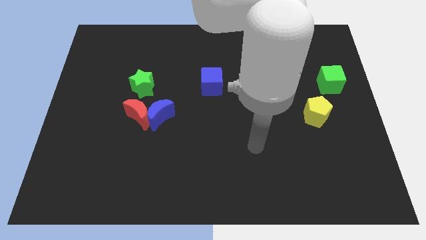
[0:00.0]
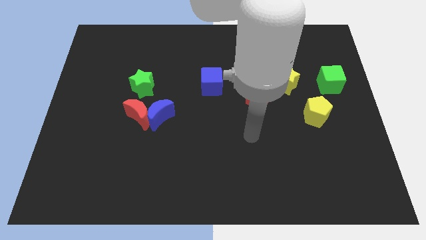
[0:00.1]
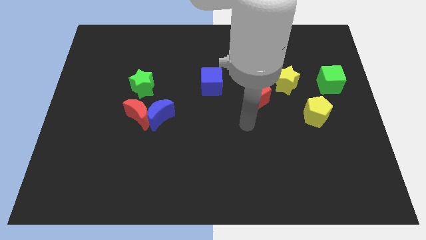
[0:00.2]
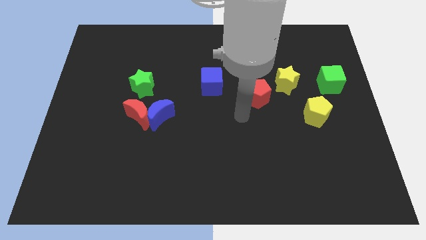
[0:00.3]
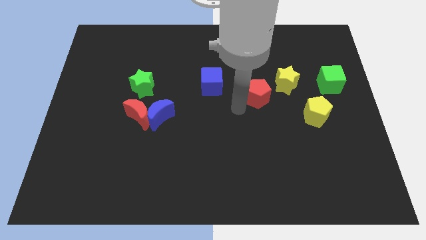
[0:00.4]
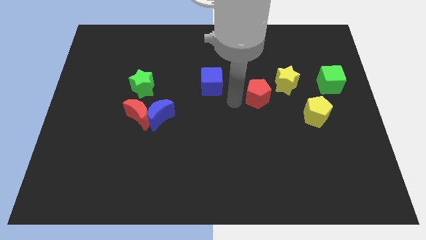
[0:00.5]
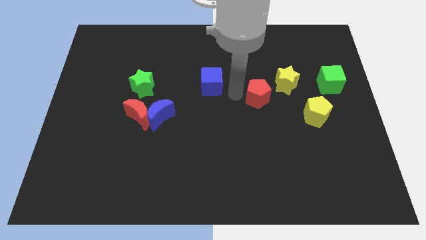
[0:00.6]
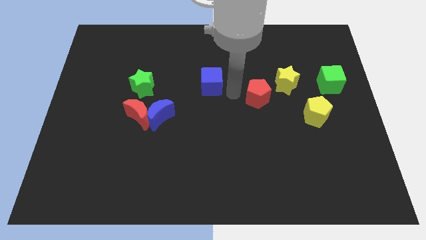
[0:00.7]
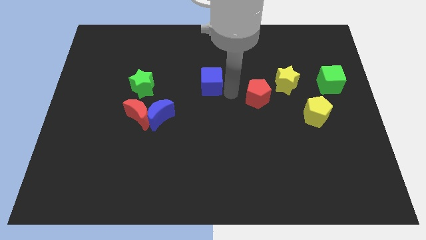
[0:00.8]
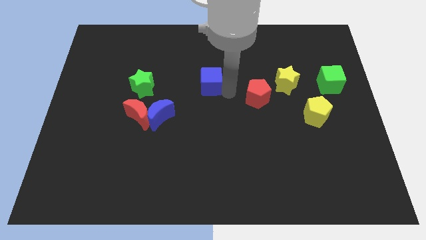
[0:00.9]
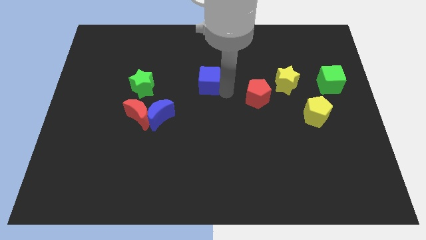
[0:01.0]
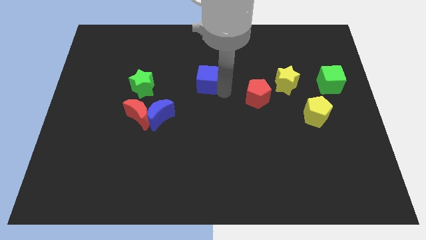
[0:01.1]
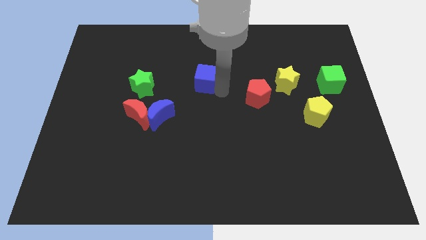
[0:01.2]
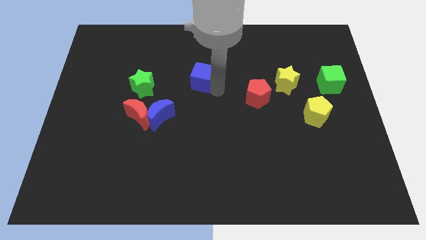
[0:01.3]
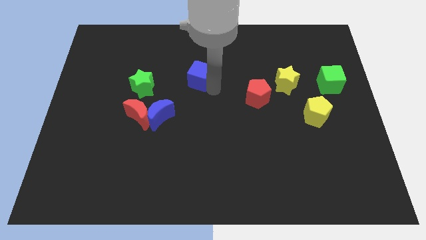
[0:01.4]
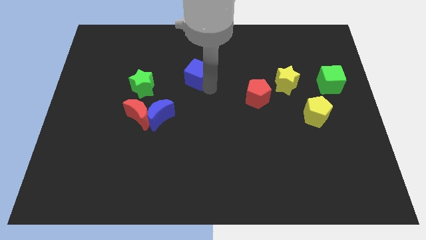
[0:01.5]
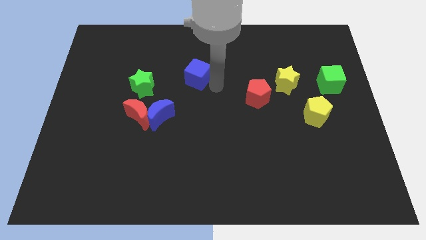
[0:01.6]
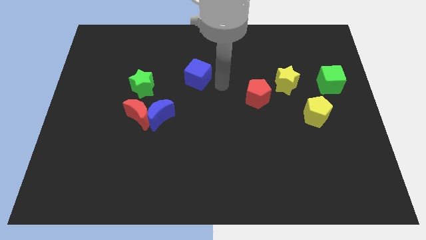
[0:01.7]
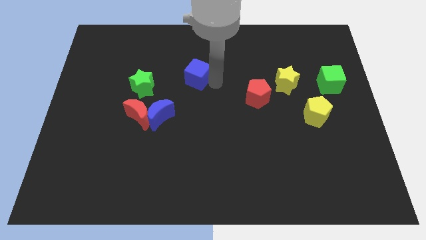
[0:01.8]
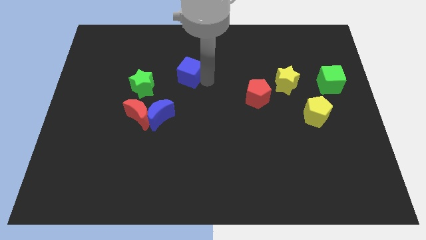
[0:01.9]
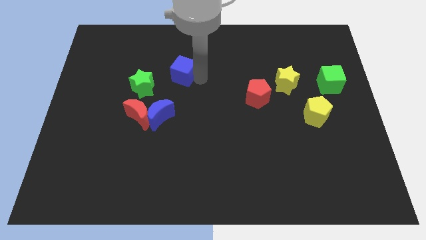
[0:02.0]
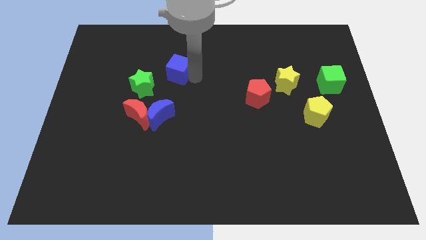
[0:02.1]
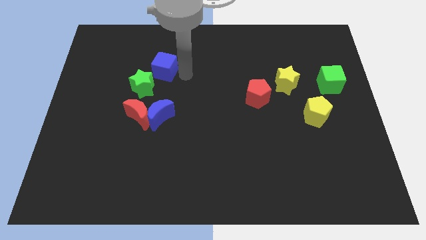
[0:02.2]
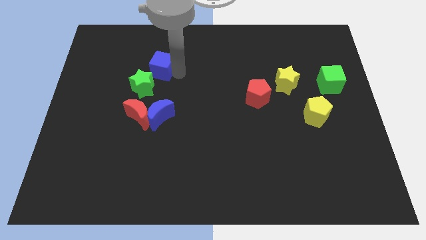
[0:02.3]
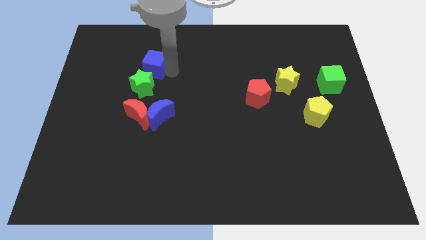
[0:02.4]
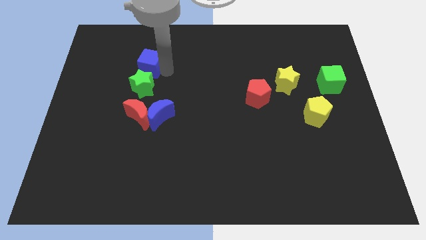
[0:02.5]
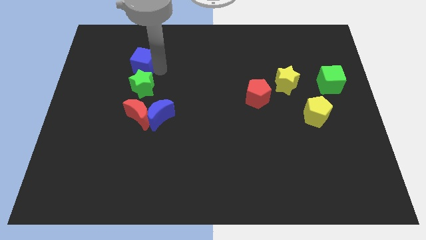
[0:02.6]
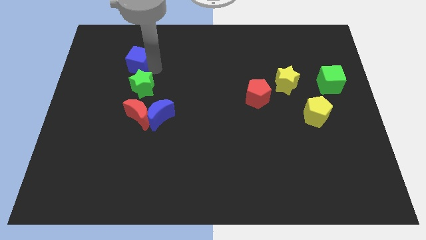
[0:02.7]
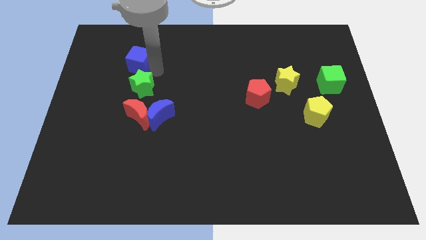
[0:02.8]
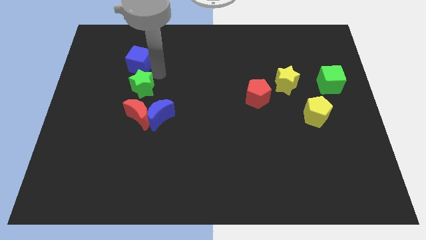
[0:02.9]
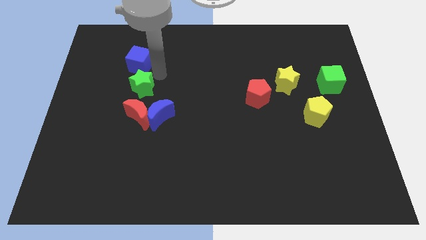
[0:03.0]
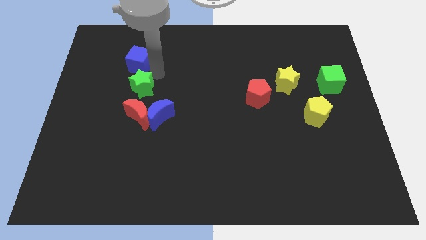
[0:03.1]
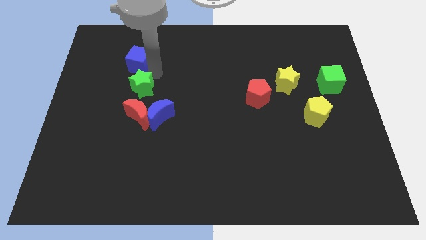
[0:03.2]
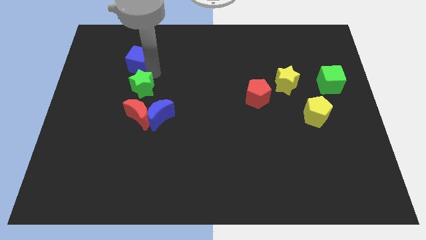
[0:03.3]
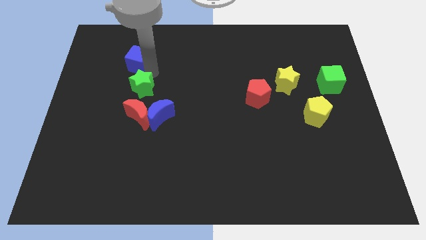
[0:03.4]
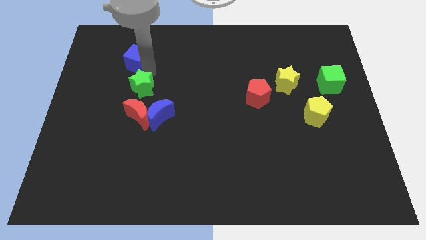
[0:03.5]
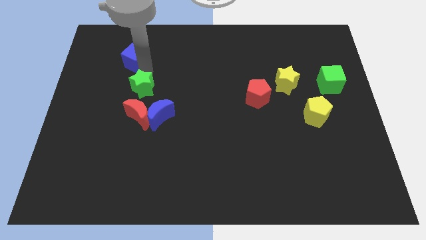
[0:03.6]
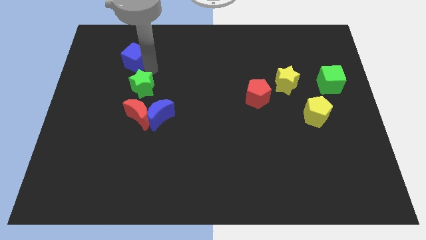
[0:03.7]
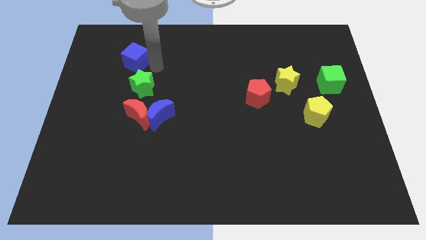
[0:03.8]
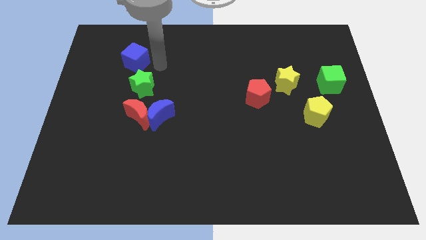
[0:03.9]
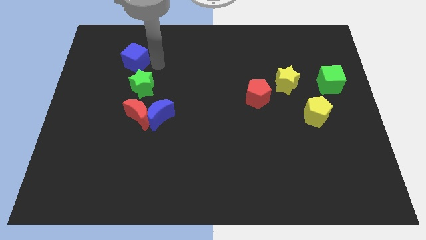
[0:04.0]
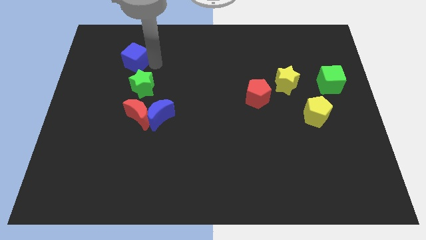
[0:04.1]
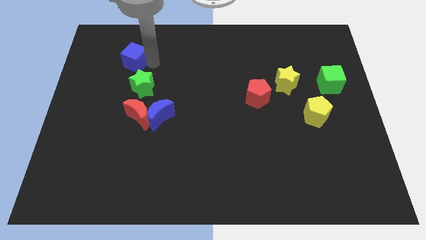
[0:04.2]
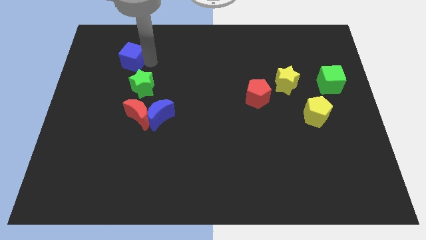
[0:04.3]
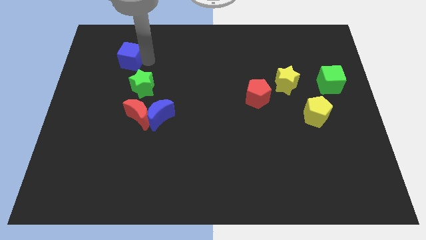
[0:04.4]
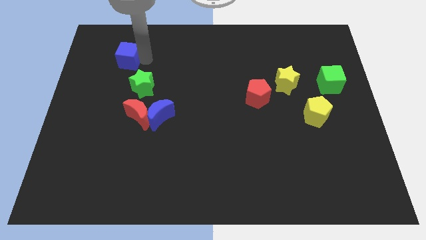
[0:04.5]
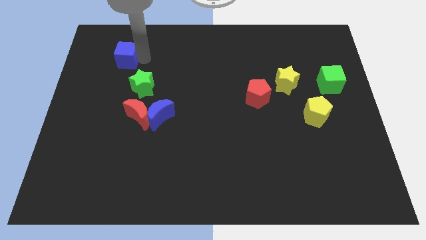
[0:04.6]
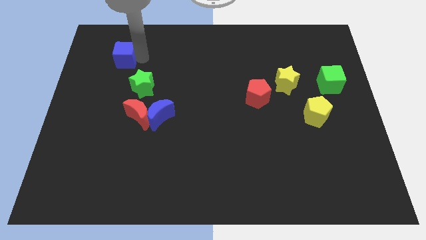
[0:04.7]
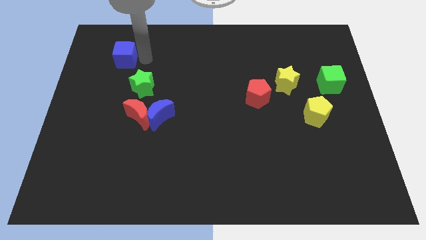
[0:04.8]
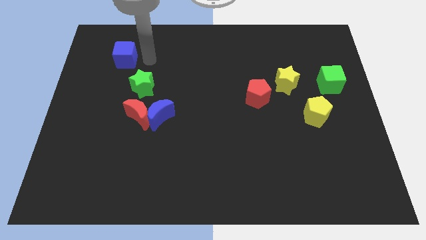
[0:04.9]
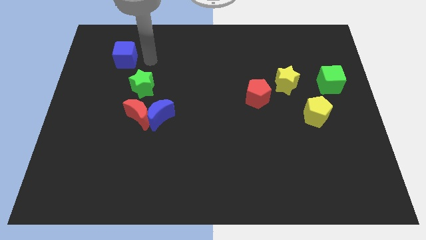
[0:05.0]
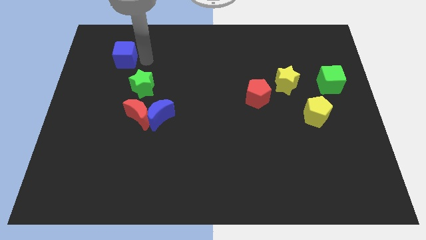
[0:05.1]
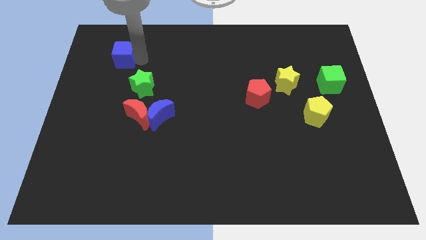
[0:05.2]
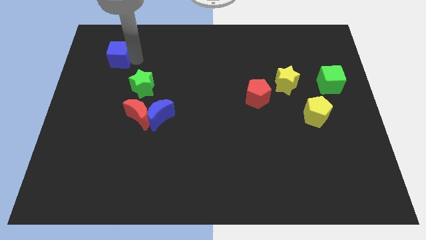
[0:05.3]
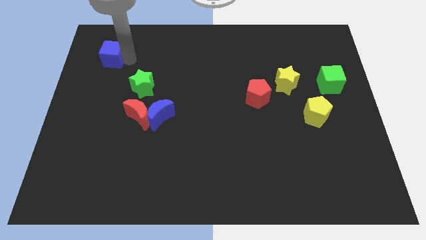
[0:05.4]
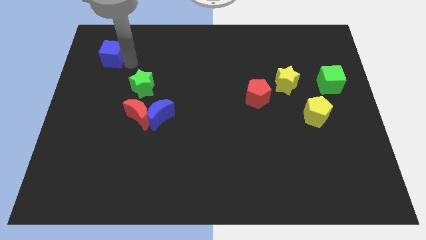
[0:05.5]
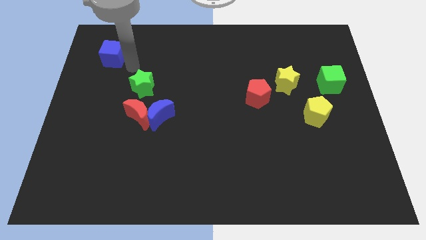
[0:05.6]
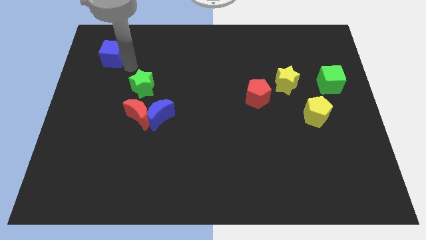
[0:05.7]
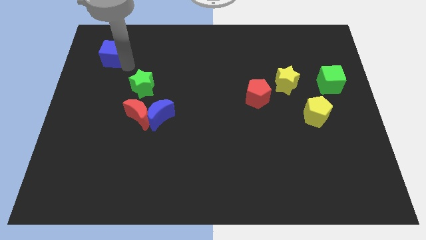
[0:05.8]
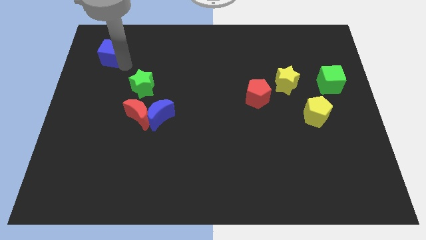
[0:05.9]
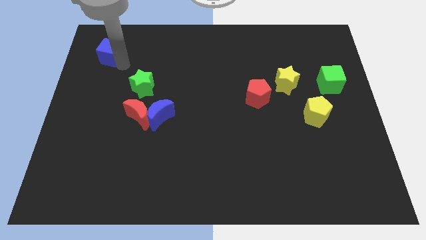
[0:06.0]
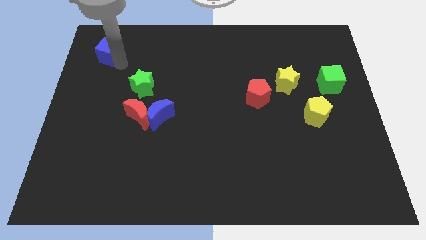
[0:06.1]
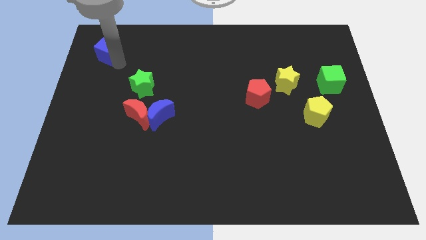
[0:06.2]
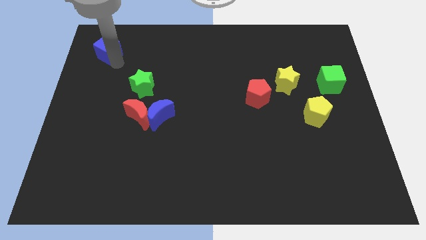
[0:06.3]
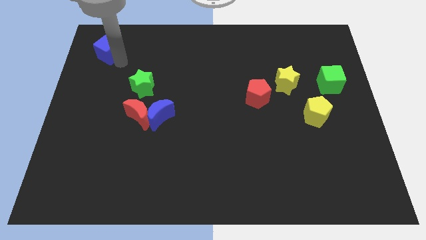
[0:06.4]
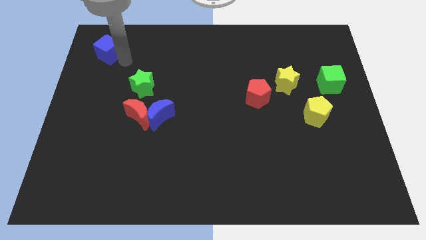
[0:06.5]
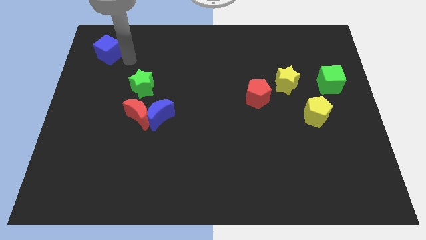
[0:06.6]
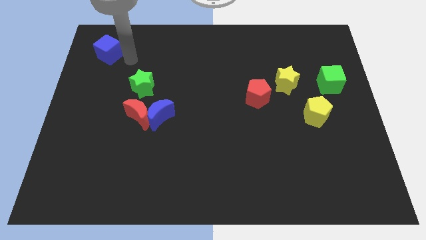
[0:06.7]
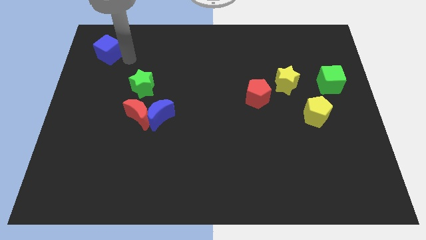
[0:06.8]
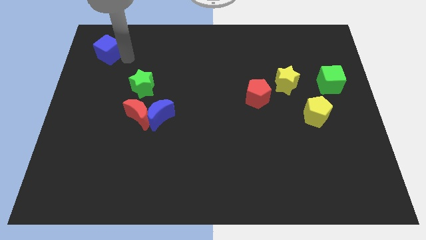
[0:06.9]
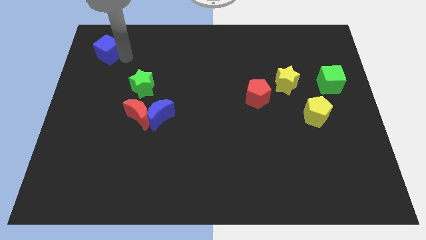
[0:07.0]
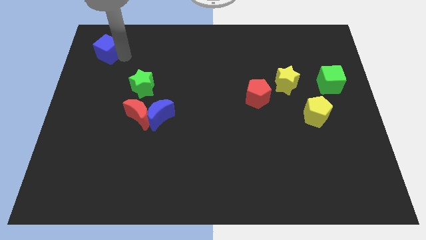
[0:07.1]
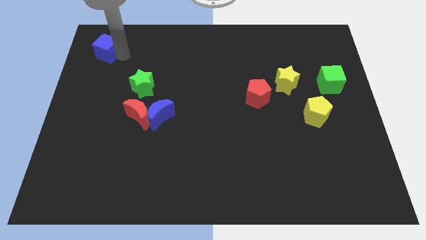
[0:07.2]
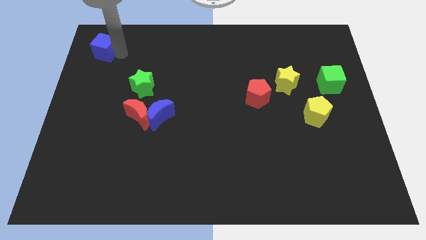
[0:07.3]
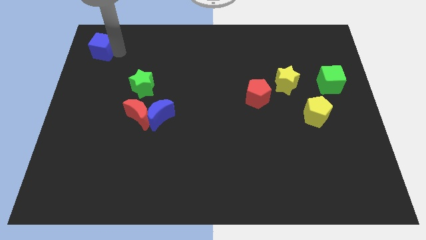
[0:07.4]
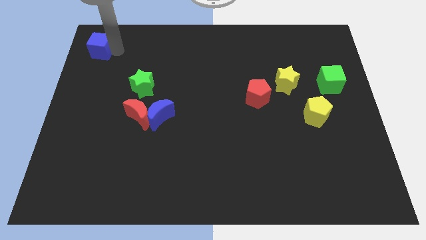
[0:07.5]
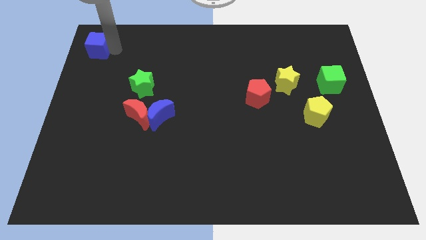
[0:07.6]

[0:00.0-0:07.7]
put the blue cube to the top left of the board
